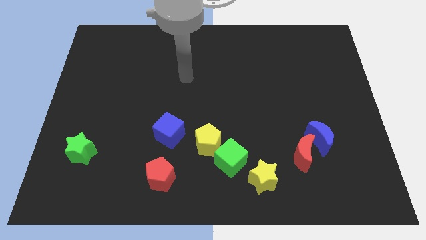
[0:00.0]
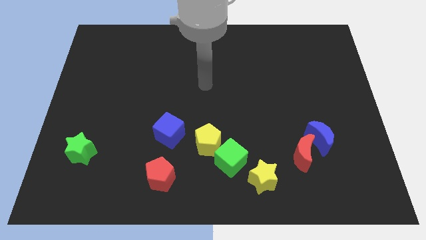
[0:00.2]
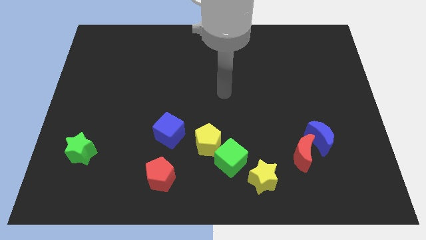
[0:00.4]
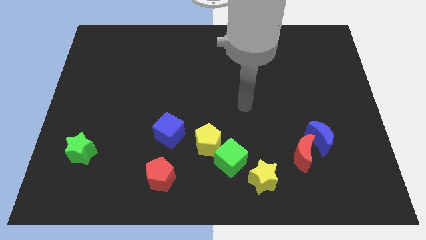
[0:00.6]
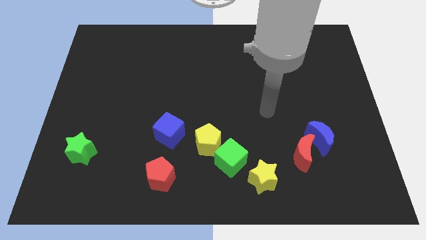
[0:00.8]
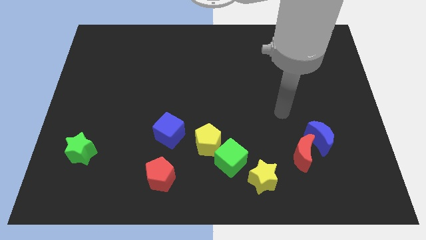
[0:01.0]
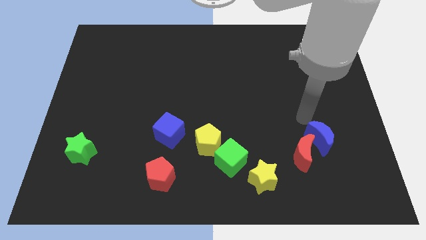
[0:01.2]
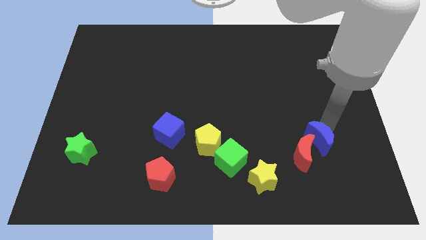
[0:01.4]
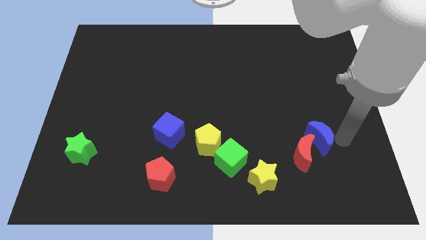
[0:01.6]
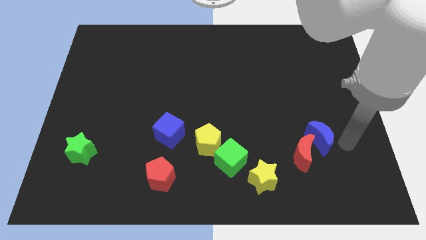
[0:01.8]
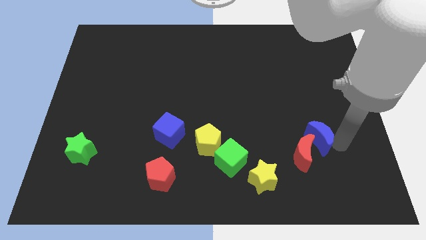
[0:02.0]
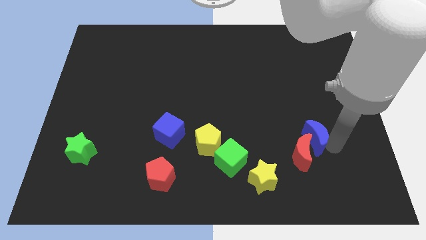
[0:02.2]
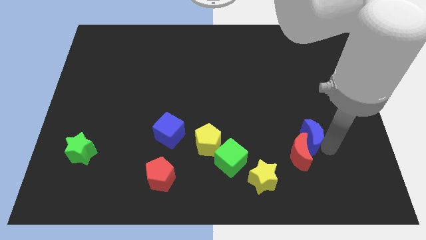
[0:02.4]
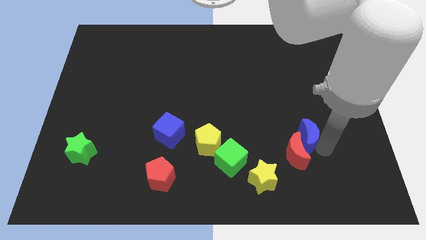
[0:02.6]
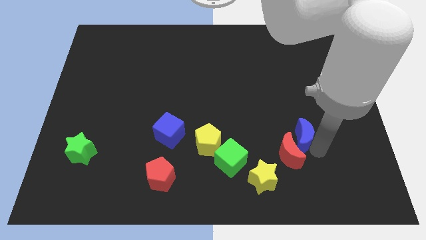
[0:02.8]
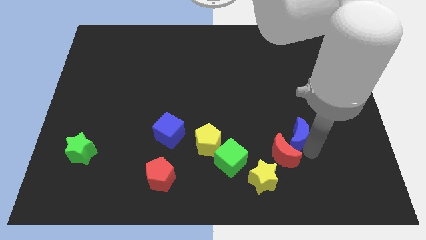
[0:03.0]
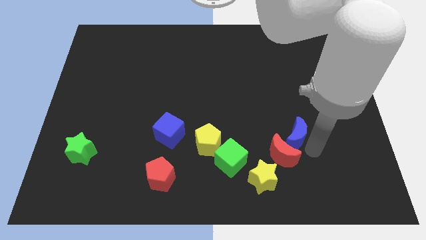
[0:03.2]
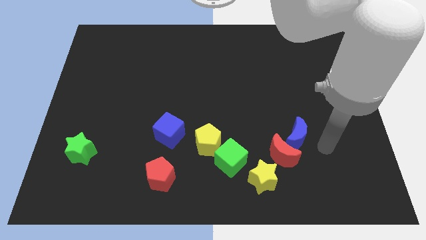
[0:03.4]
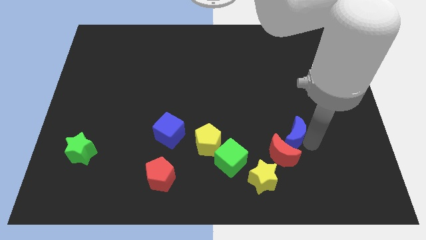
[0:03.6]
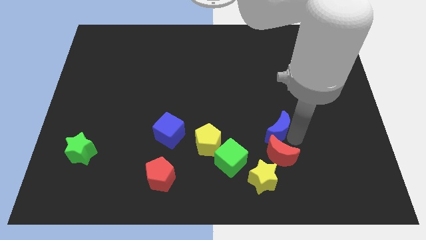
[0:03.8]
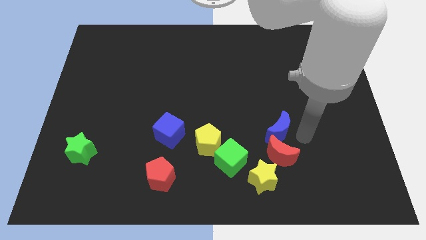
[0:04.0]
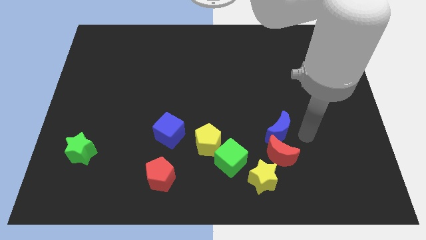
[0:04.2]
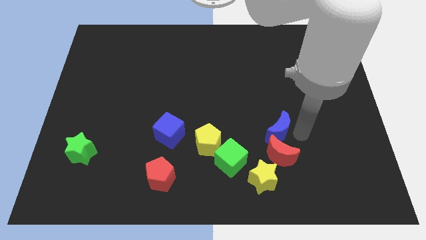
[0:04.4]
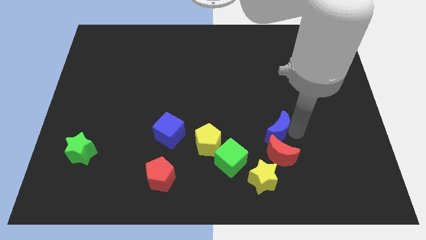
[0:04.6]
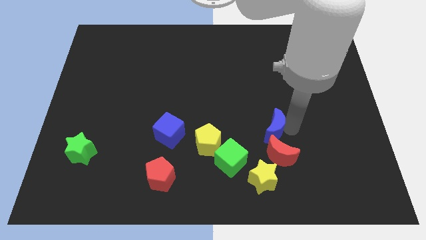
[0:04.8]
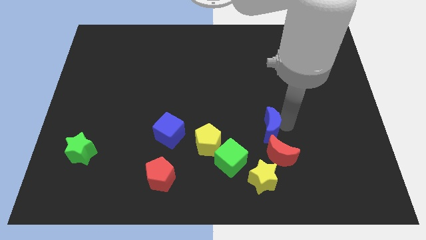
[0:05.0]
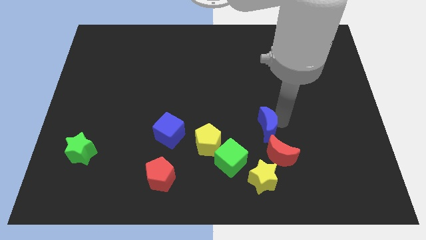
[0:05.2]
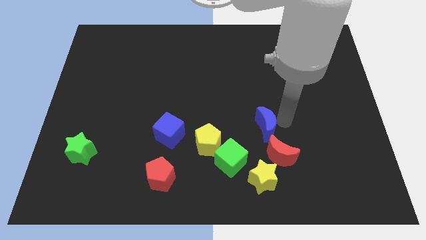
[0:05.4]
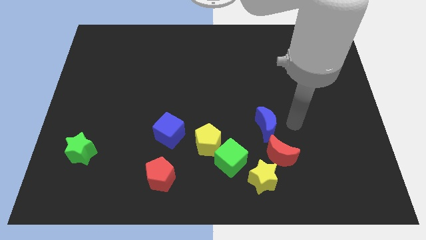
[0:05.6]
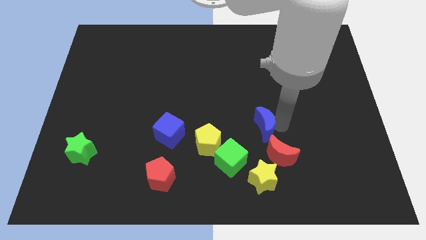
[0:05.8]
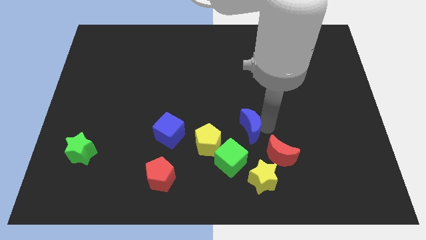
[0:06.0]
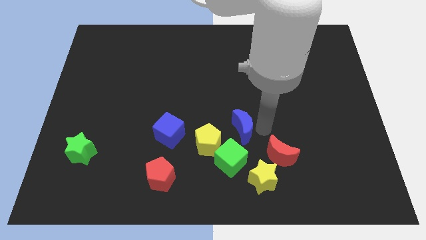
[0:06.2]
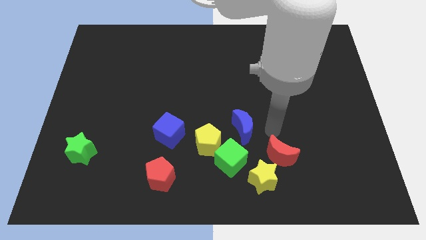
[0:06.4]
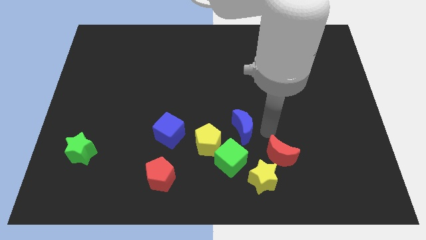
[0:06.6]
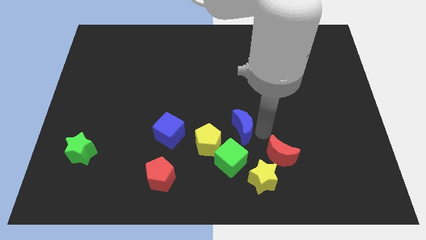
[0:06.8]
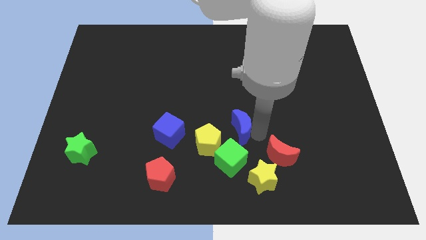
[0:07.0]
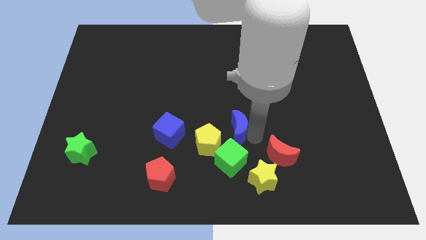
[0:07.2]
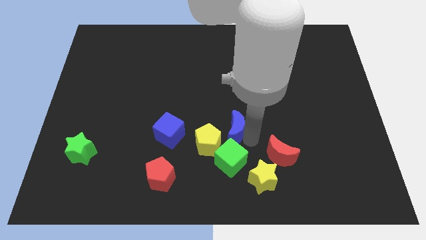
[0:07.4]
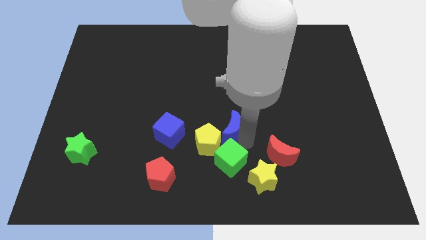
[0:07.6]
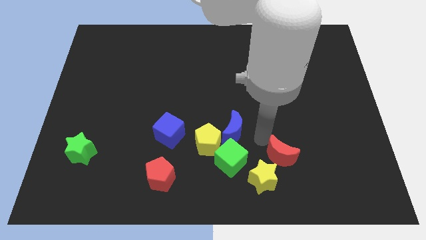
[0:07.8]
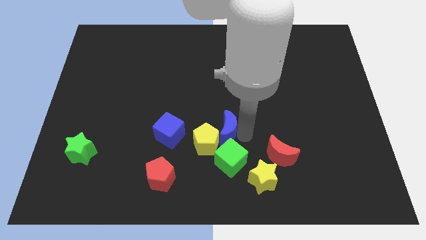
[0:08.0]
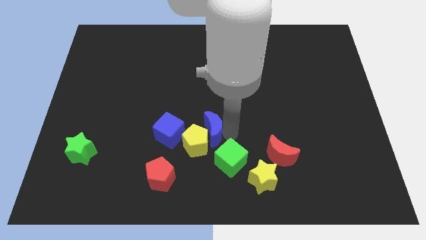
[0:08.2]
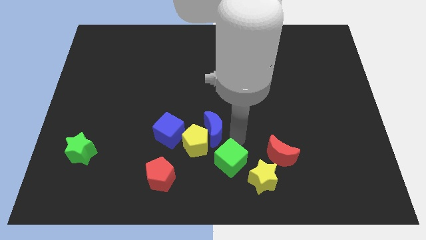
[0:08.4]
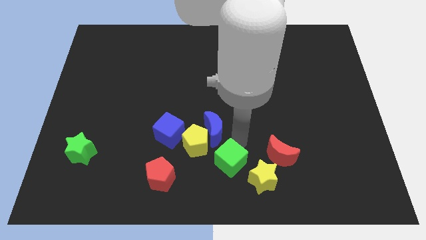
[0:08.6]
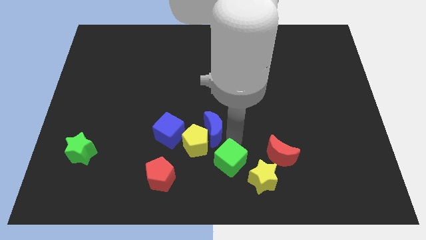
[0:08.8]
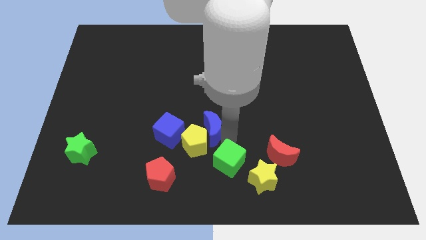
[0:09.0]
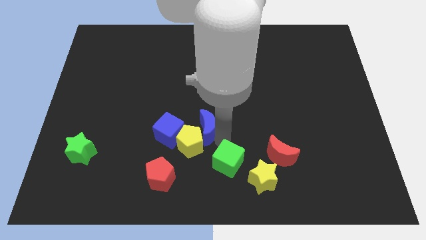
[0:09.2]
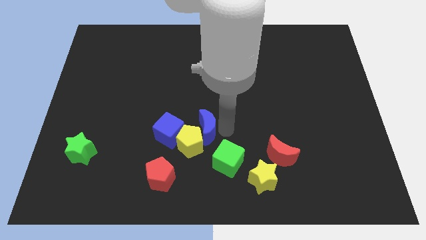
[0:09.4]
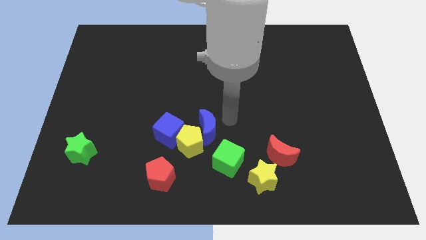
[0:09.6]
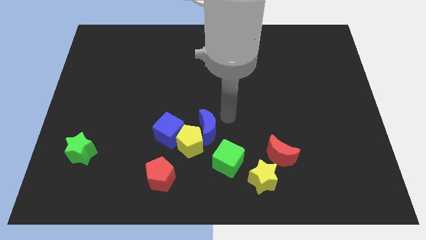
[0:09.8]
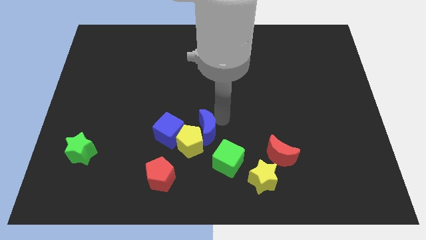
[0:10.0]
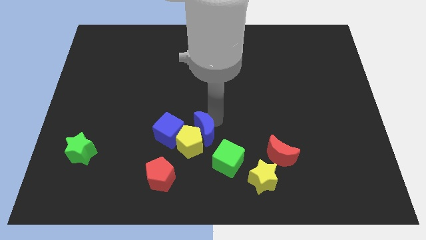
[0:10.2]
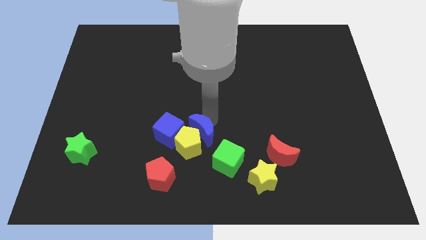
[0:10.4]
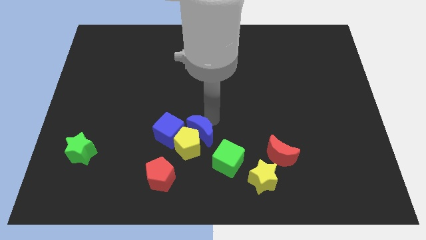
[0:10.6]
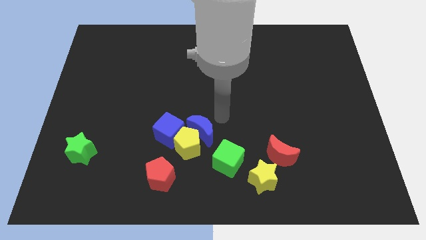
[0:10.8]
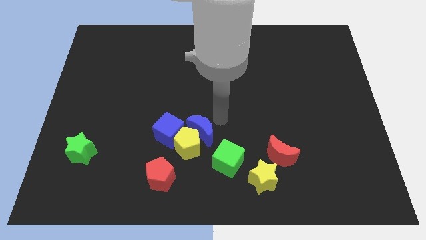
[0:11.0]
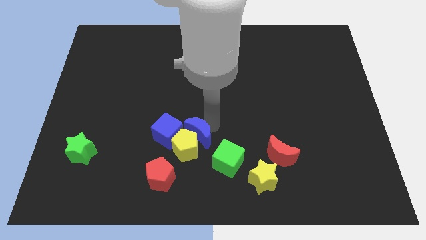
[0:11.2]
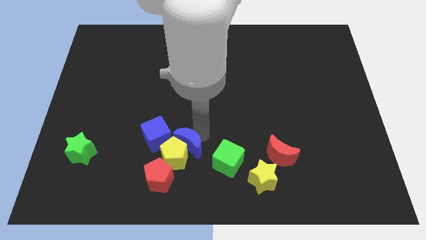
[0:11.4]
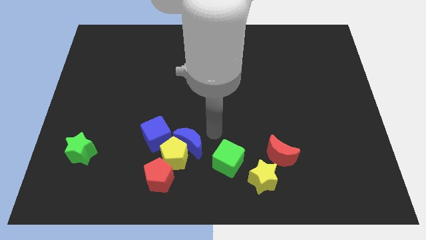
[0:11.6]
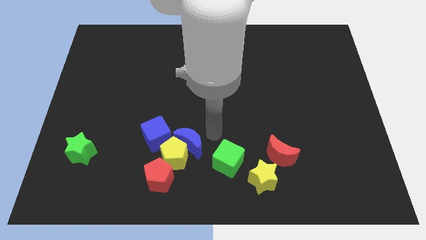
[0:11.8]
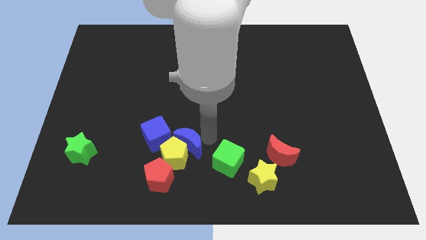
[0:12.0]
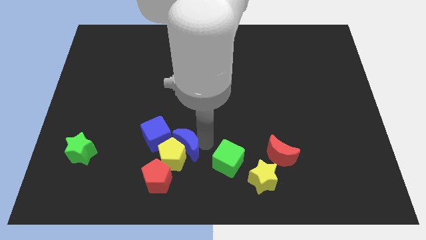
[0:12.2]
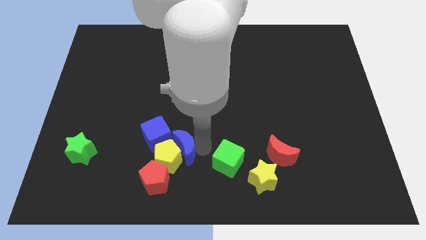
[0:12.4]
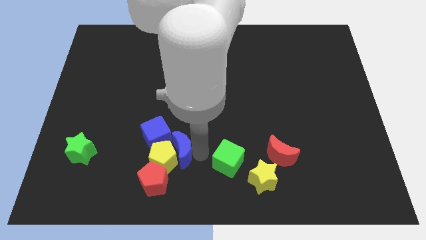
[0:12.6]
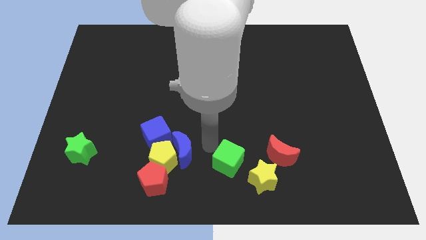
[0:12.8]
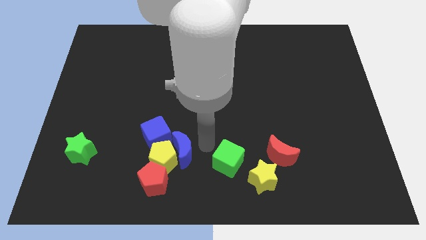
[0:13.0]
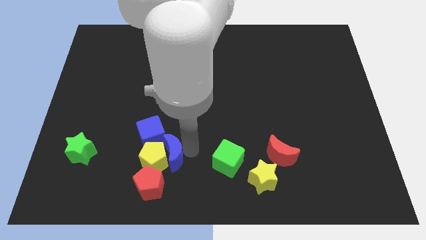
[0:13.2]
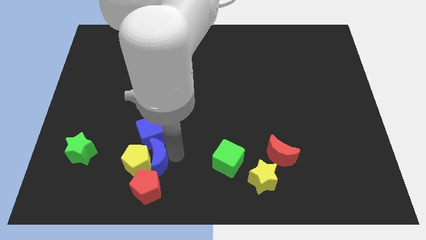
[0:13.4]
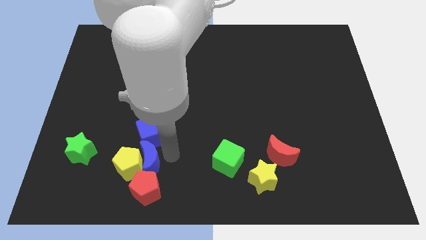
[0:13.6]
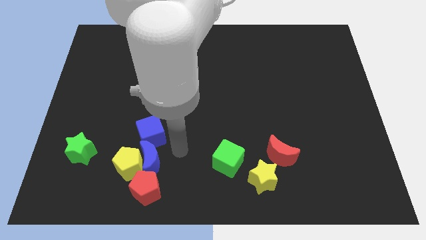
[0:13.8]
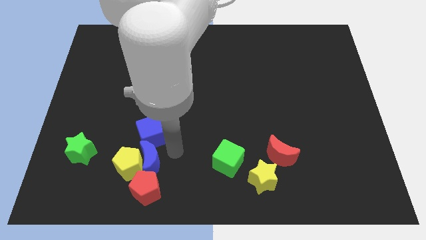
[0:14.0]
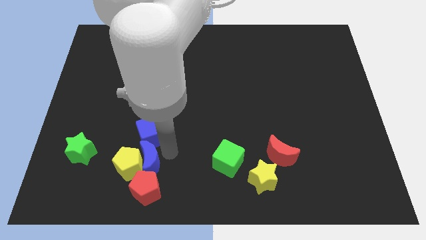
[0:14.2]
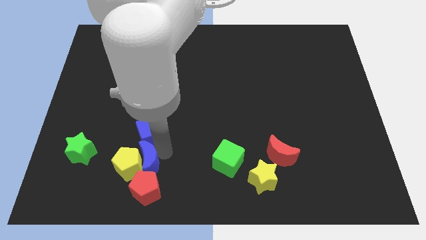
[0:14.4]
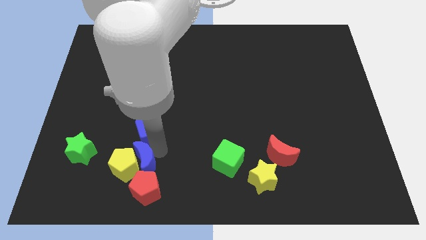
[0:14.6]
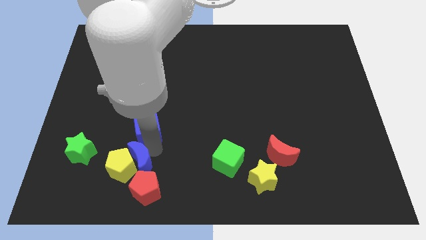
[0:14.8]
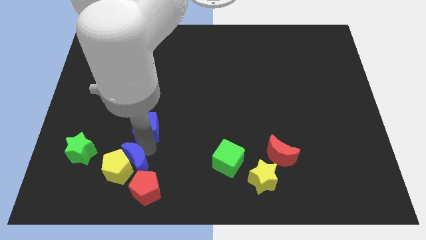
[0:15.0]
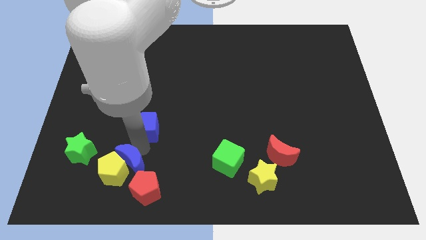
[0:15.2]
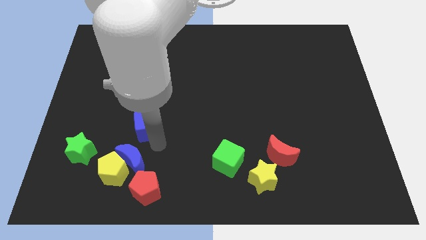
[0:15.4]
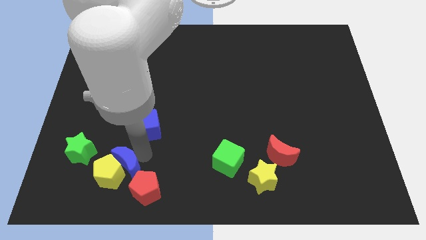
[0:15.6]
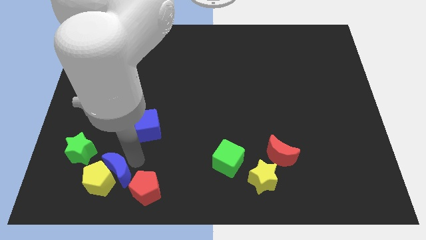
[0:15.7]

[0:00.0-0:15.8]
put the blue moon to the left side of the red pentagon
